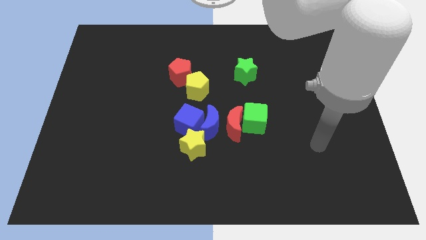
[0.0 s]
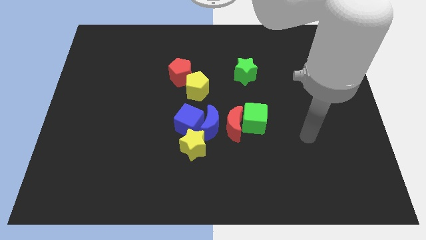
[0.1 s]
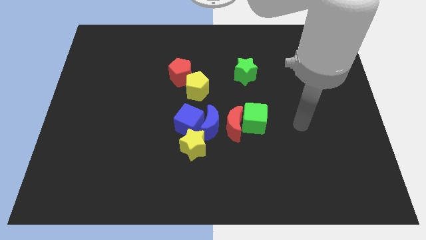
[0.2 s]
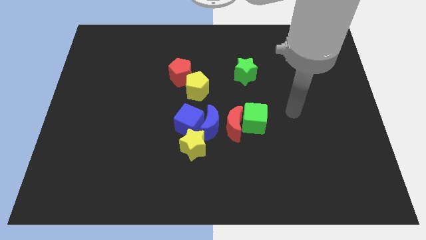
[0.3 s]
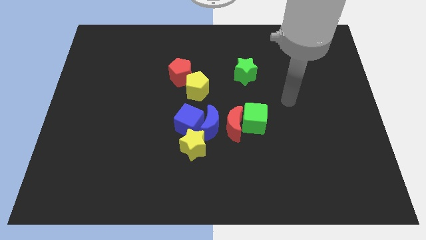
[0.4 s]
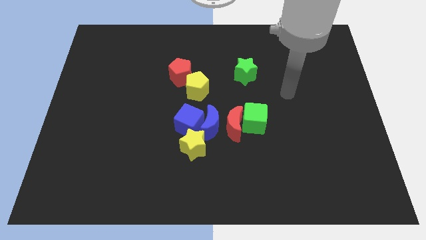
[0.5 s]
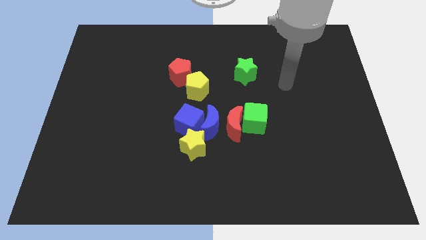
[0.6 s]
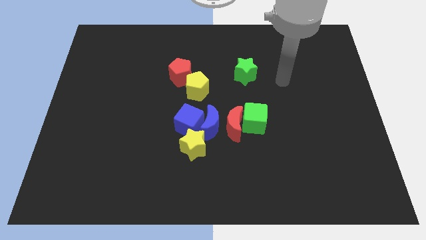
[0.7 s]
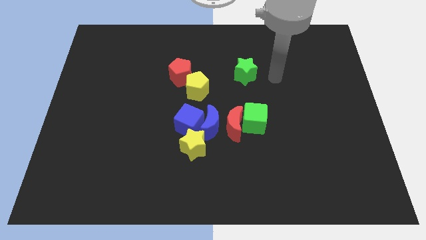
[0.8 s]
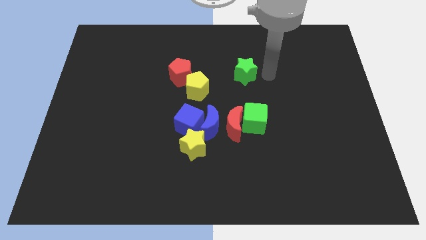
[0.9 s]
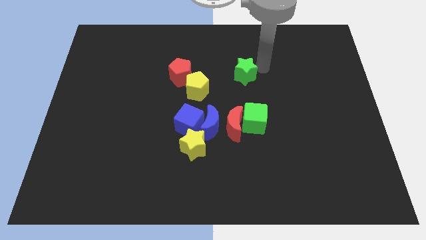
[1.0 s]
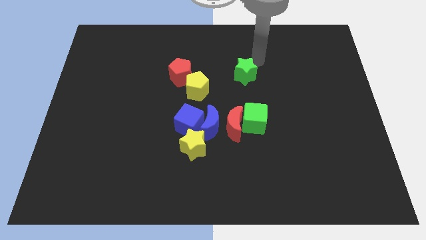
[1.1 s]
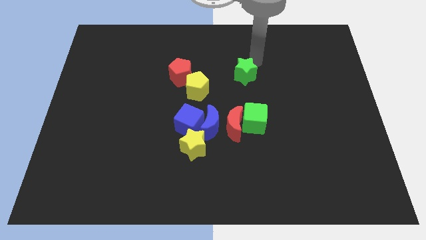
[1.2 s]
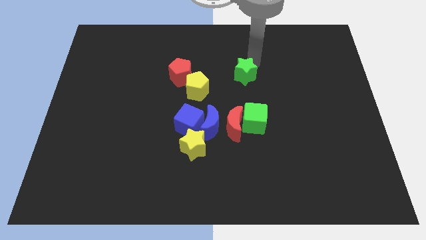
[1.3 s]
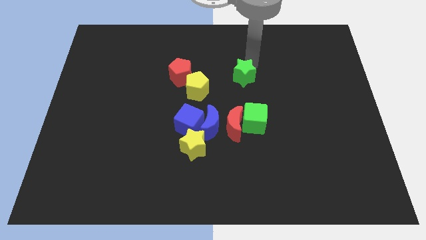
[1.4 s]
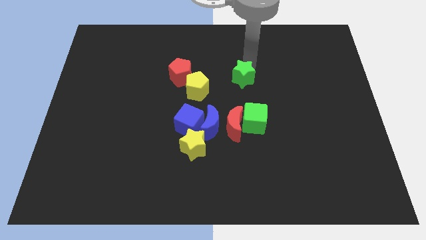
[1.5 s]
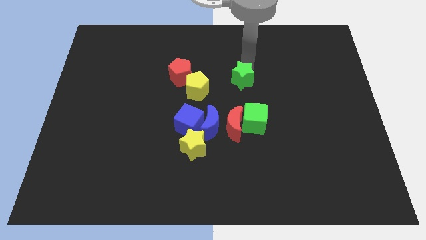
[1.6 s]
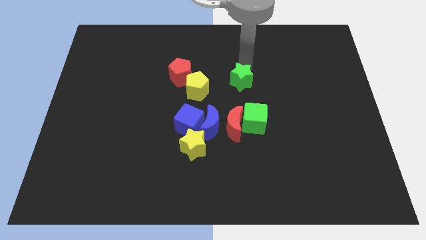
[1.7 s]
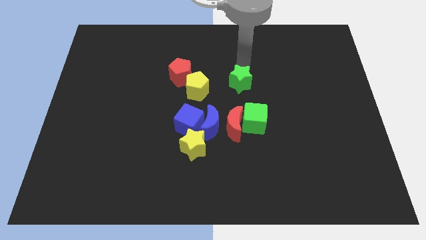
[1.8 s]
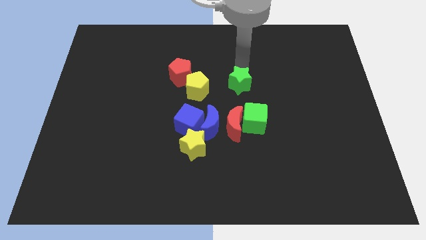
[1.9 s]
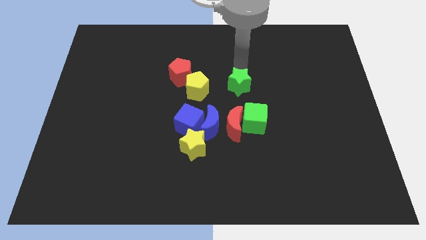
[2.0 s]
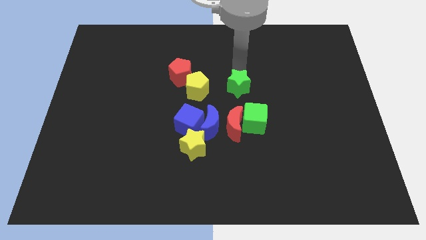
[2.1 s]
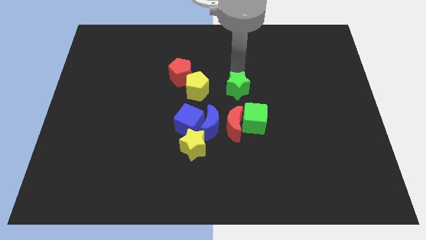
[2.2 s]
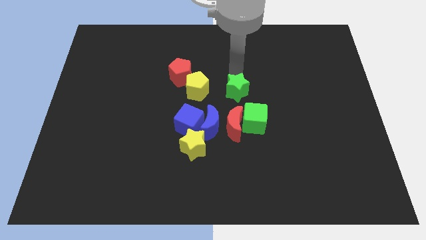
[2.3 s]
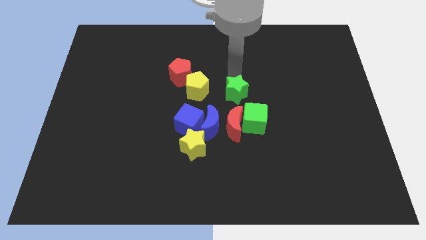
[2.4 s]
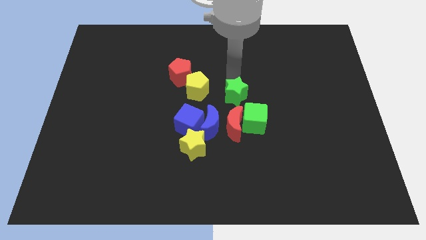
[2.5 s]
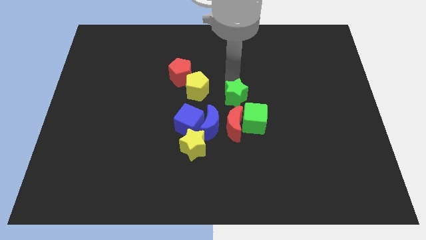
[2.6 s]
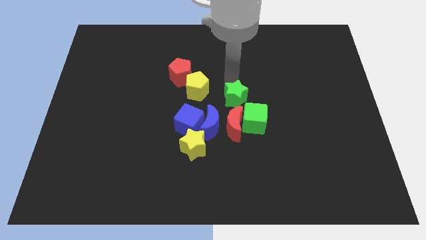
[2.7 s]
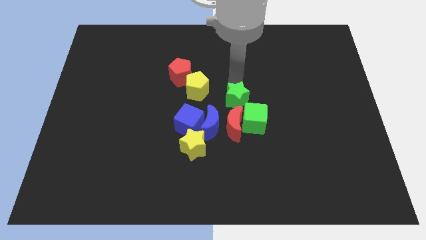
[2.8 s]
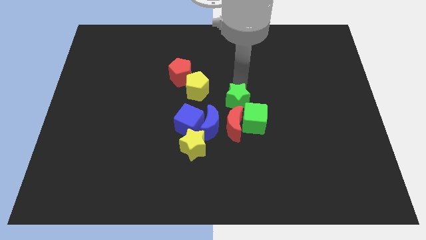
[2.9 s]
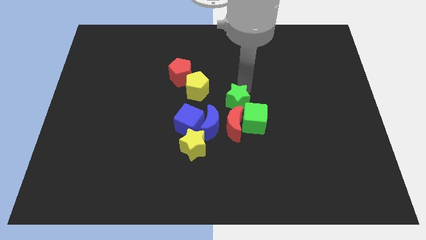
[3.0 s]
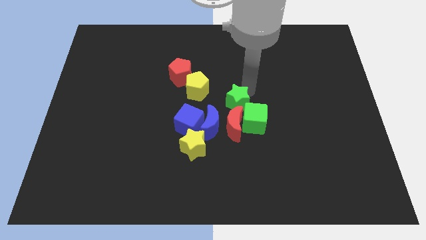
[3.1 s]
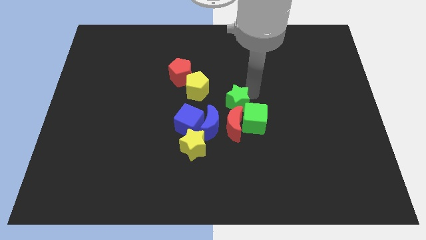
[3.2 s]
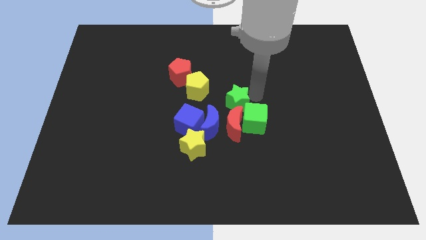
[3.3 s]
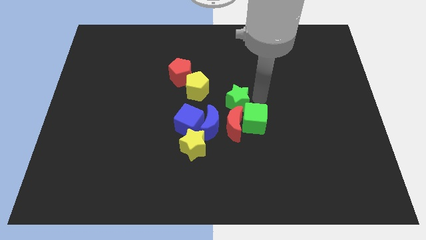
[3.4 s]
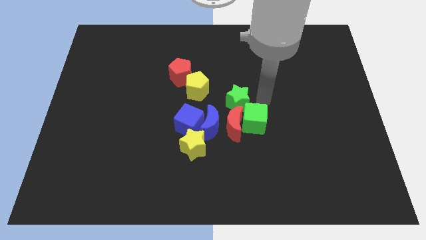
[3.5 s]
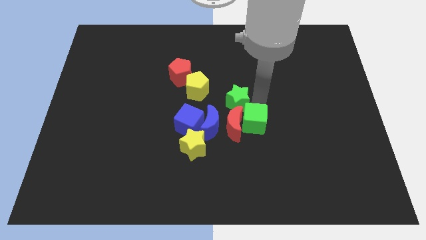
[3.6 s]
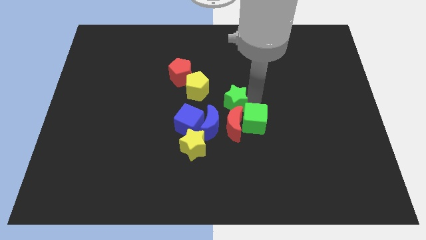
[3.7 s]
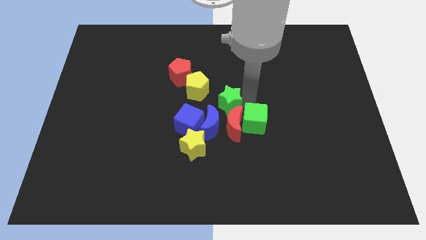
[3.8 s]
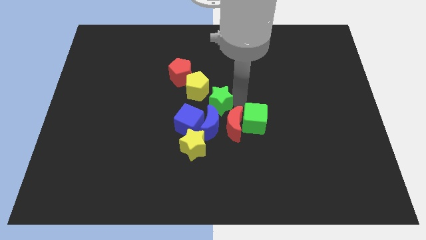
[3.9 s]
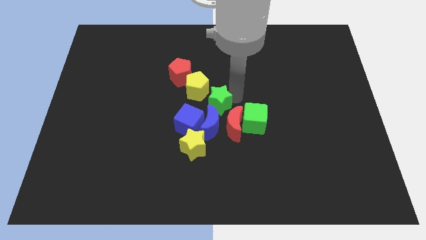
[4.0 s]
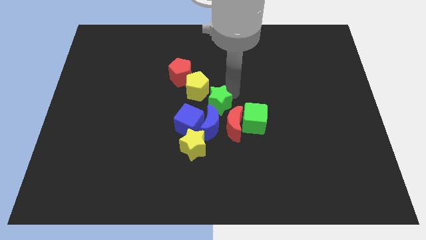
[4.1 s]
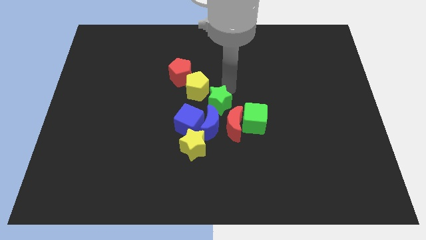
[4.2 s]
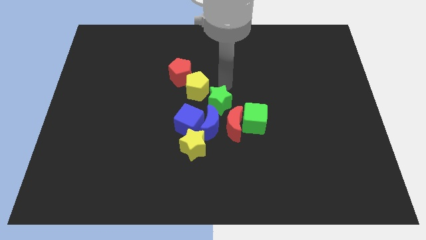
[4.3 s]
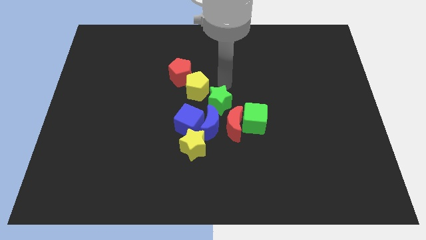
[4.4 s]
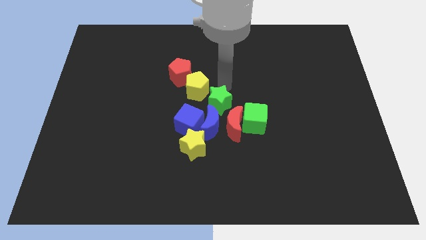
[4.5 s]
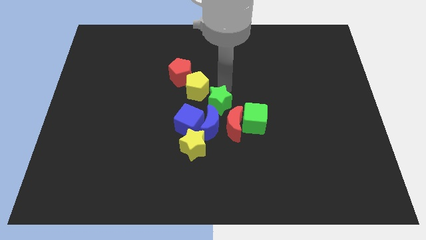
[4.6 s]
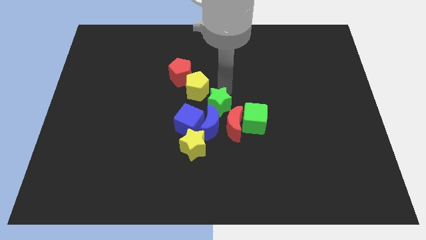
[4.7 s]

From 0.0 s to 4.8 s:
slide the green star to the blue moon

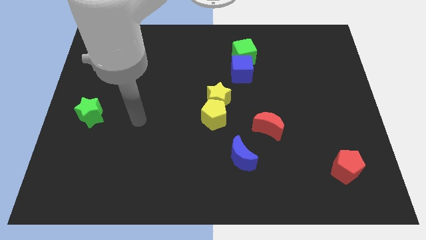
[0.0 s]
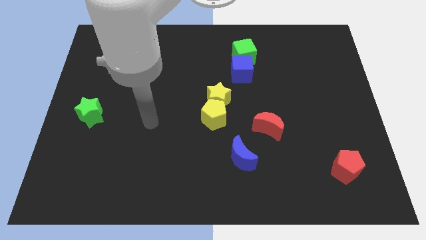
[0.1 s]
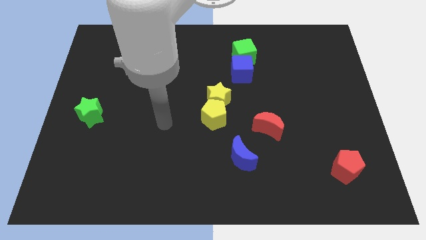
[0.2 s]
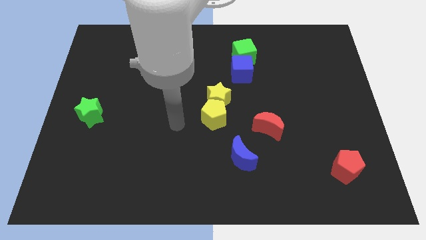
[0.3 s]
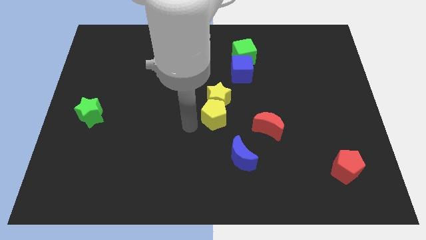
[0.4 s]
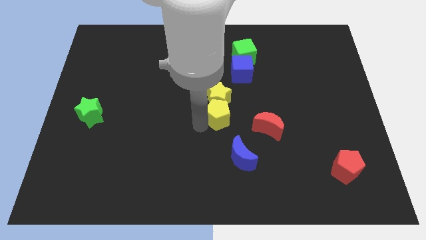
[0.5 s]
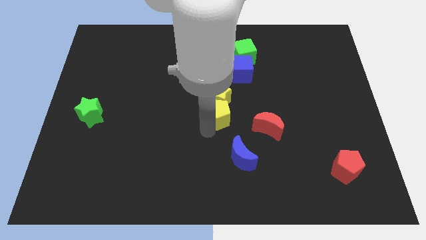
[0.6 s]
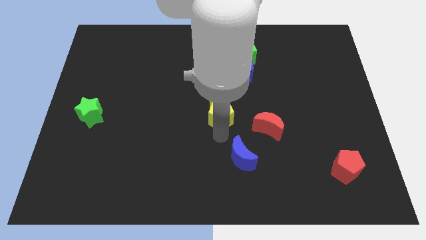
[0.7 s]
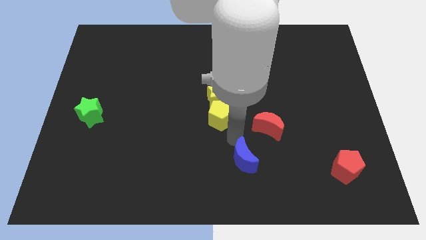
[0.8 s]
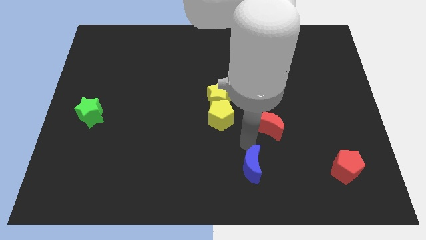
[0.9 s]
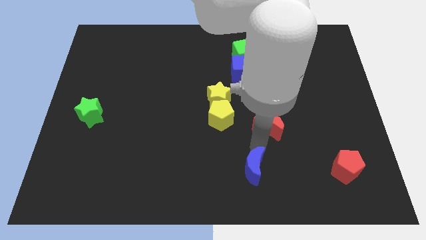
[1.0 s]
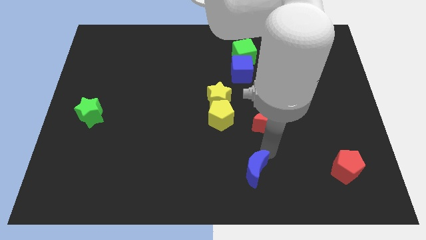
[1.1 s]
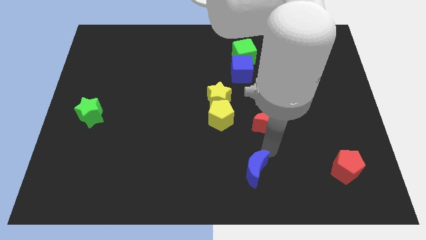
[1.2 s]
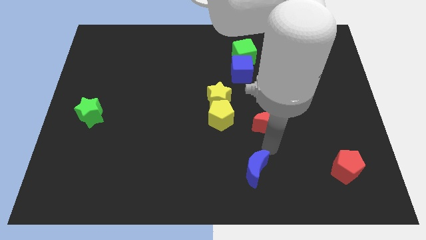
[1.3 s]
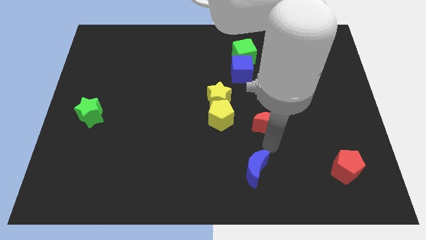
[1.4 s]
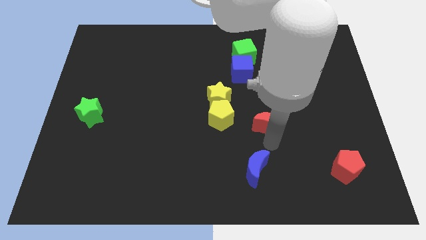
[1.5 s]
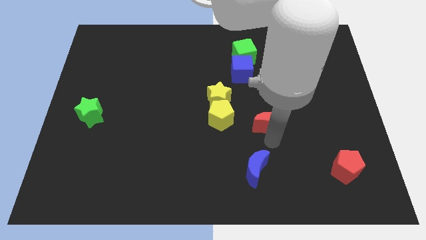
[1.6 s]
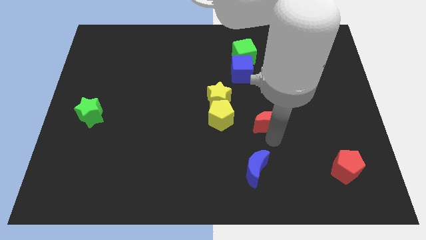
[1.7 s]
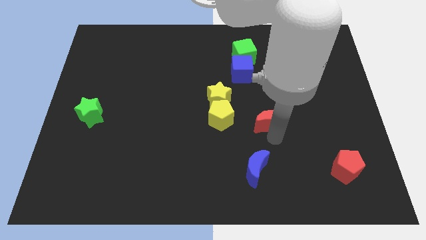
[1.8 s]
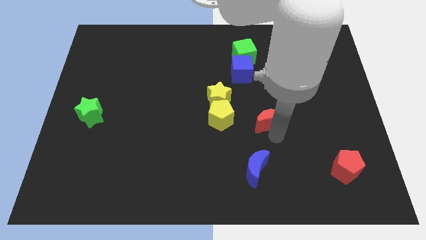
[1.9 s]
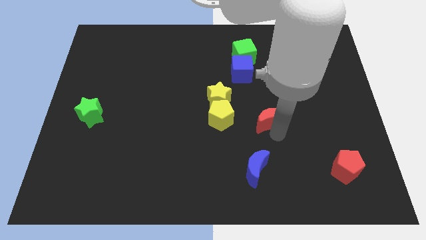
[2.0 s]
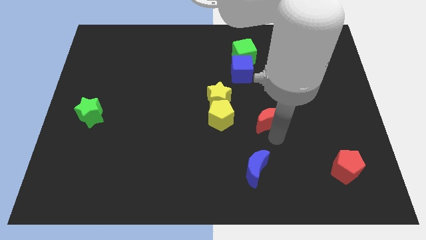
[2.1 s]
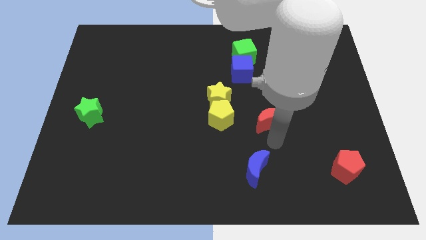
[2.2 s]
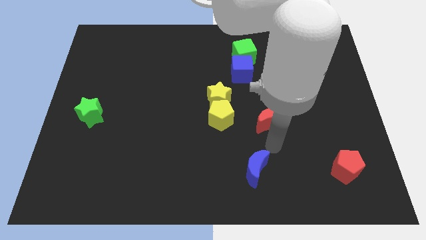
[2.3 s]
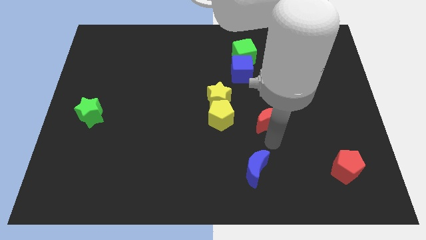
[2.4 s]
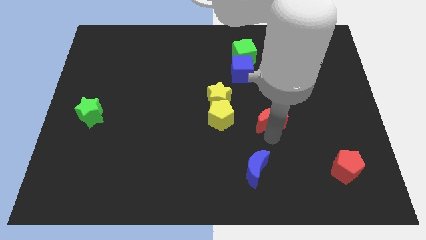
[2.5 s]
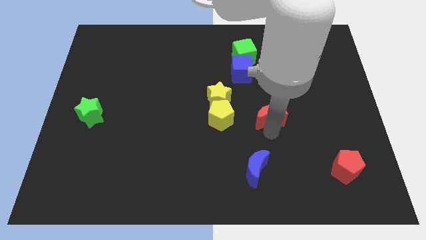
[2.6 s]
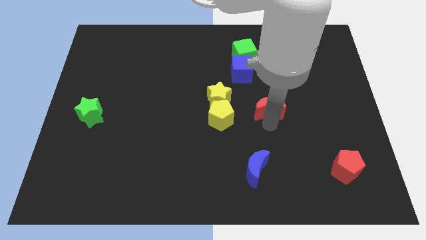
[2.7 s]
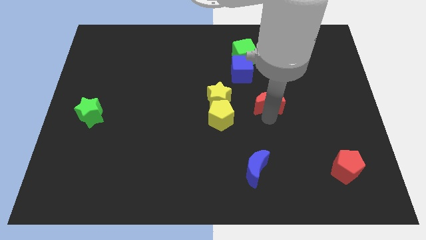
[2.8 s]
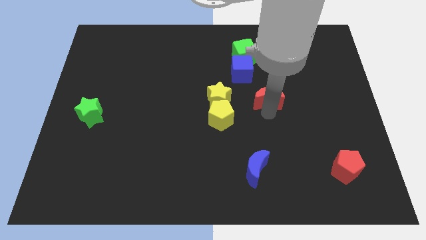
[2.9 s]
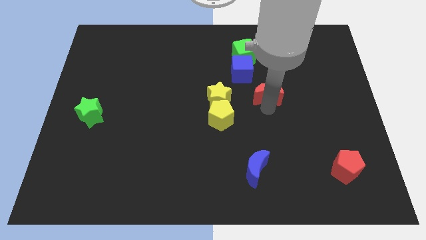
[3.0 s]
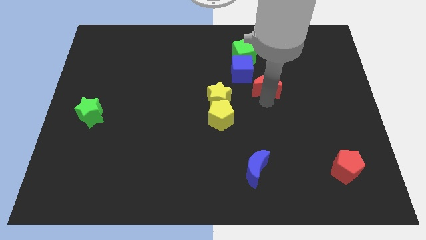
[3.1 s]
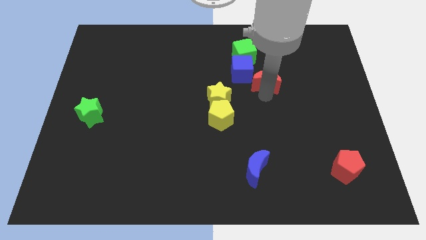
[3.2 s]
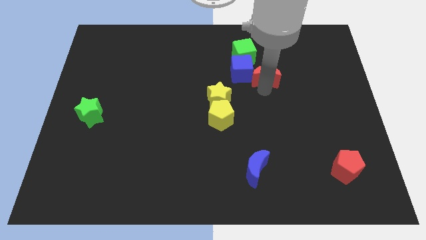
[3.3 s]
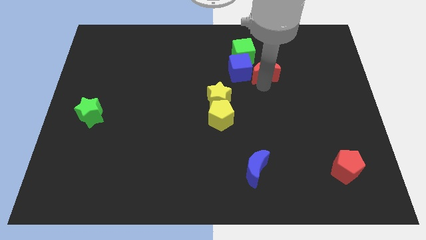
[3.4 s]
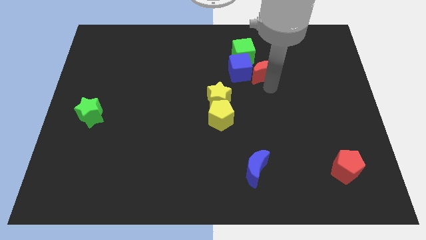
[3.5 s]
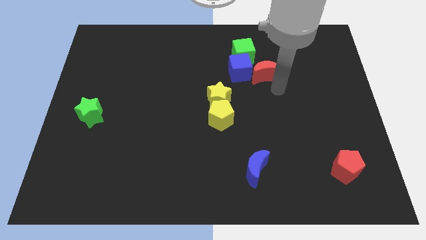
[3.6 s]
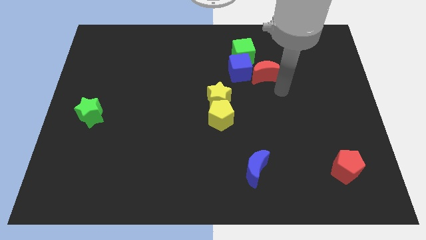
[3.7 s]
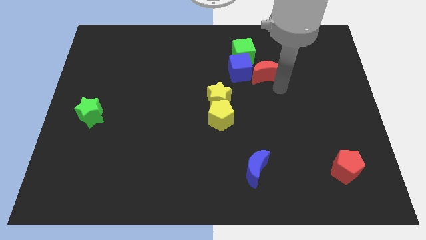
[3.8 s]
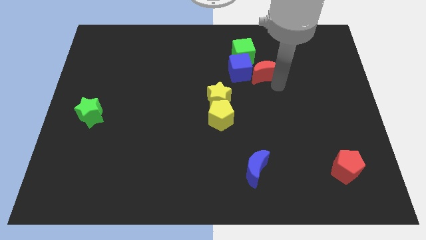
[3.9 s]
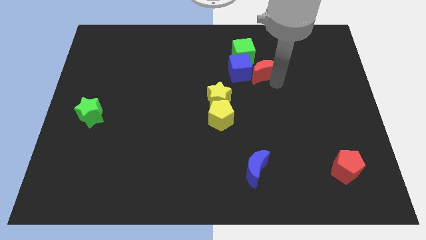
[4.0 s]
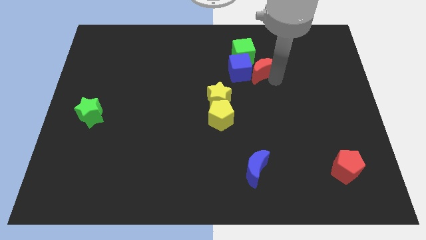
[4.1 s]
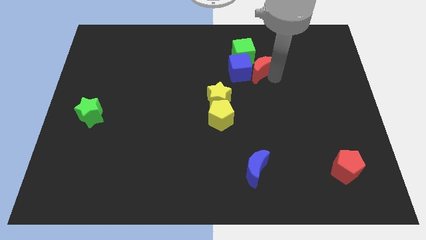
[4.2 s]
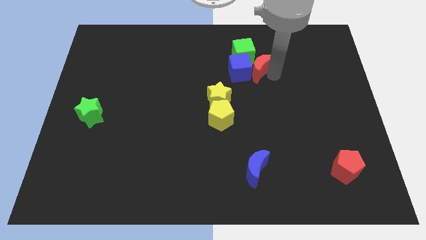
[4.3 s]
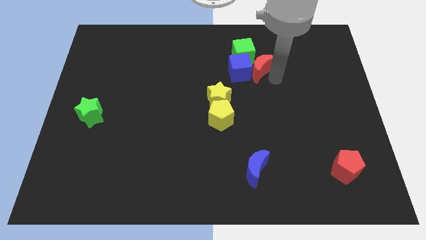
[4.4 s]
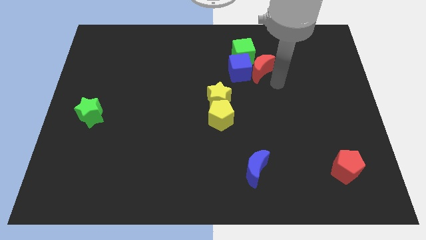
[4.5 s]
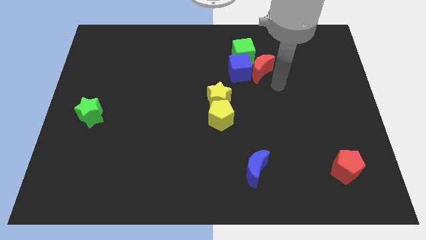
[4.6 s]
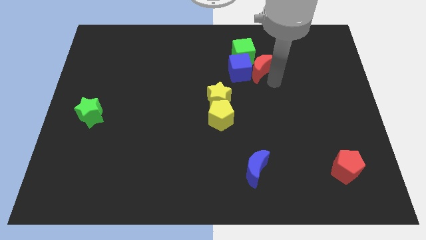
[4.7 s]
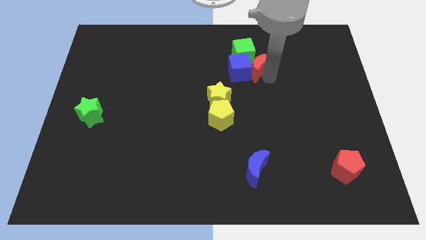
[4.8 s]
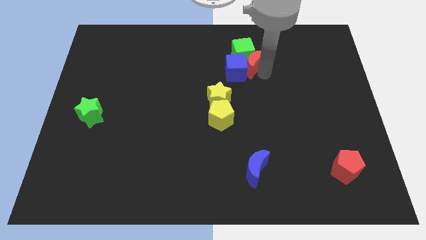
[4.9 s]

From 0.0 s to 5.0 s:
put the red moon towards the green cube
